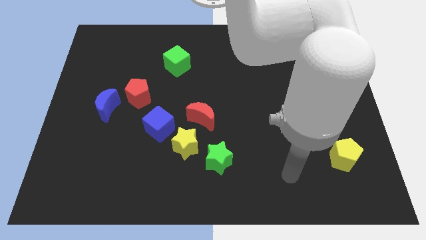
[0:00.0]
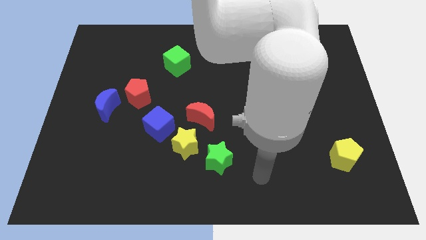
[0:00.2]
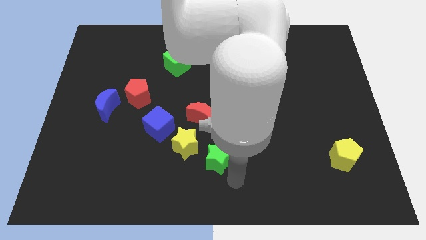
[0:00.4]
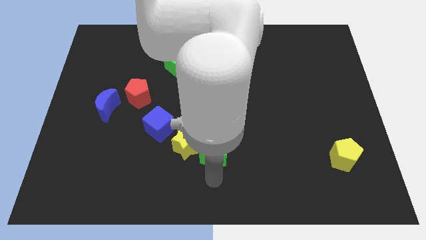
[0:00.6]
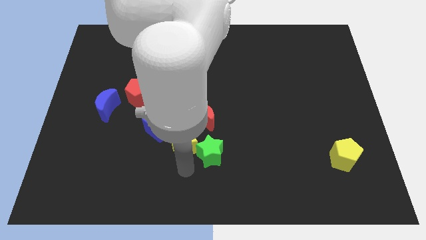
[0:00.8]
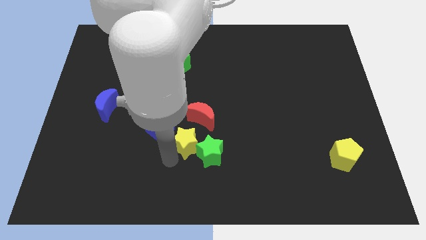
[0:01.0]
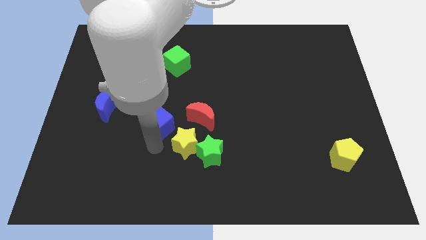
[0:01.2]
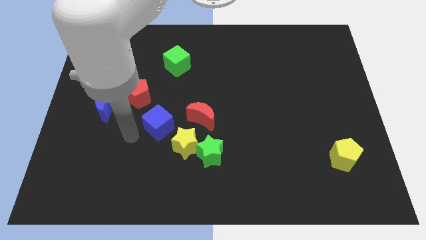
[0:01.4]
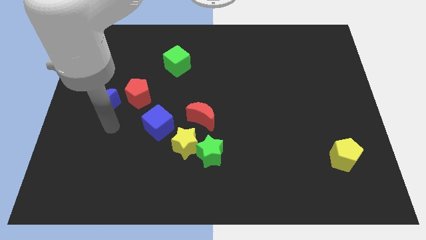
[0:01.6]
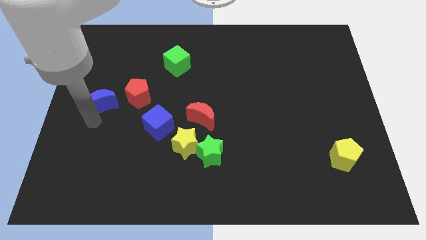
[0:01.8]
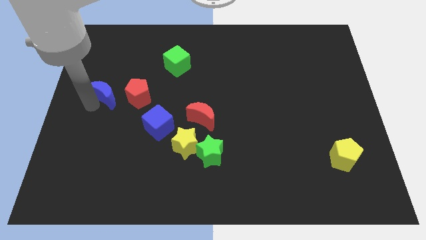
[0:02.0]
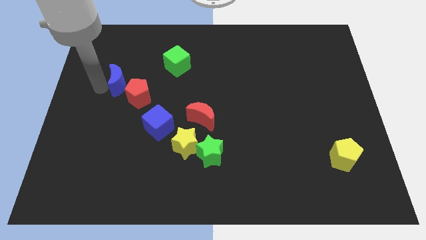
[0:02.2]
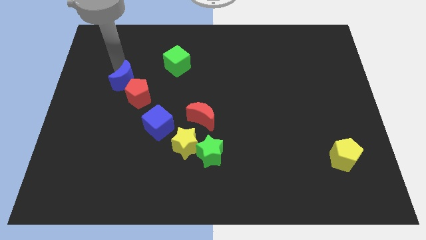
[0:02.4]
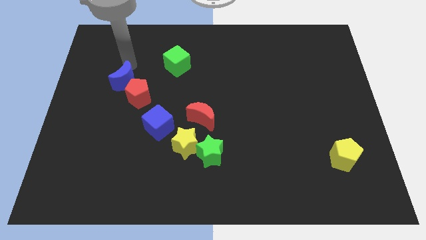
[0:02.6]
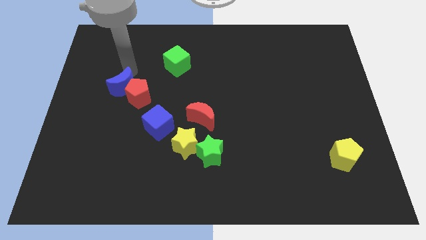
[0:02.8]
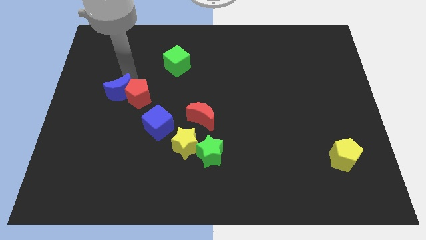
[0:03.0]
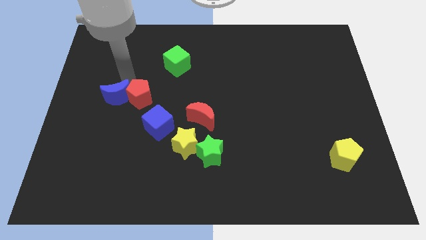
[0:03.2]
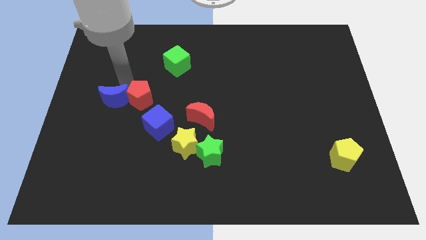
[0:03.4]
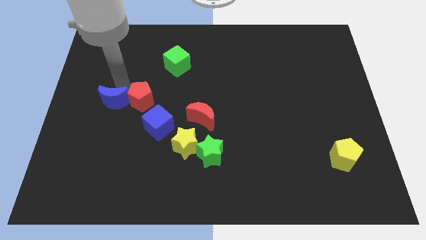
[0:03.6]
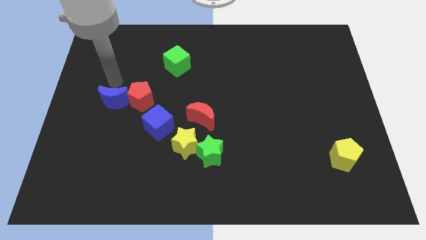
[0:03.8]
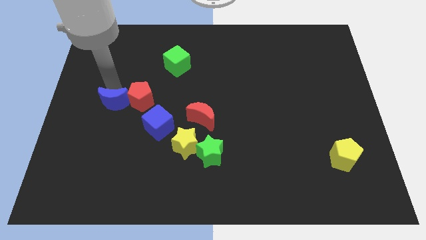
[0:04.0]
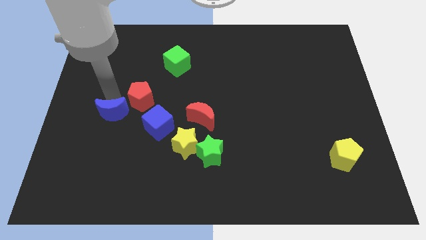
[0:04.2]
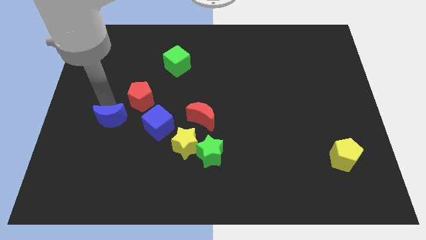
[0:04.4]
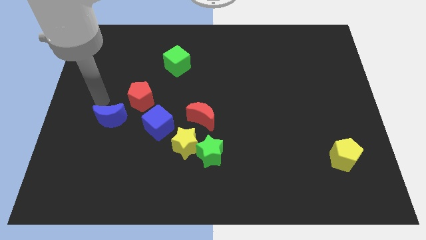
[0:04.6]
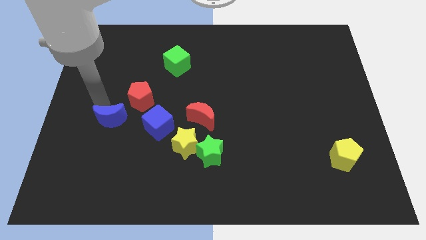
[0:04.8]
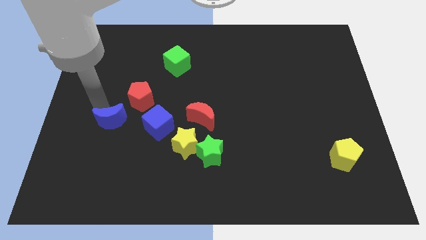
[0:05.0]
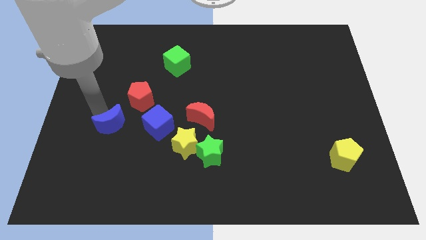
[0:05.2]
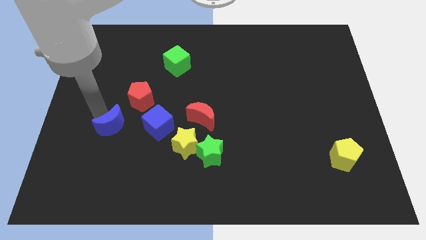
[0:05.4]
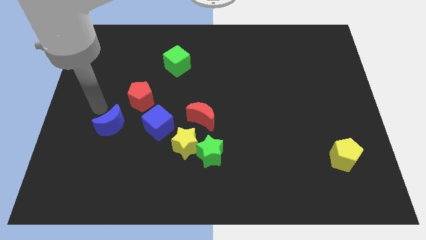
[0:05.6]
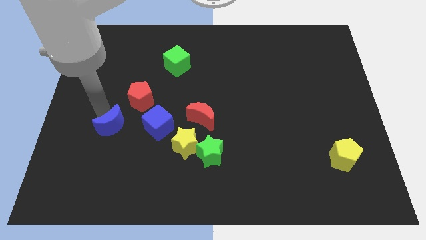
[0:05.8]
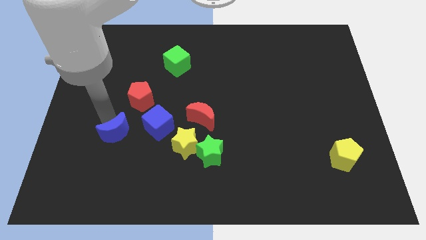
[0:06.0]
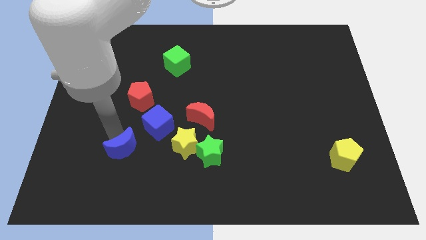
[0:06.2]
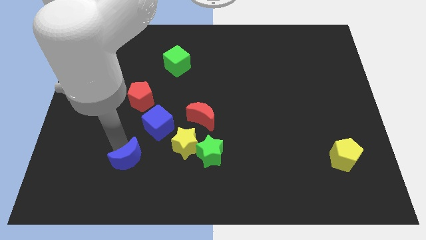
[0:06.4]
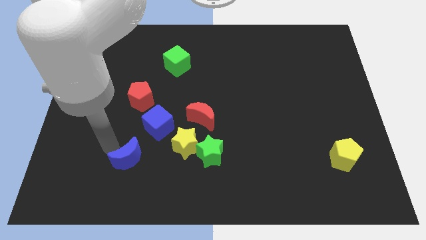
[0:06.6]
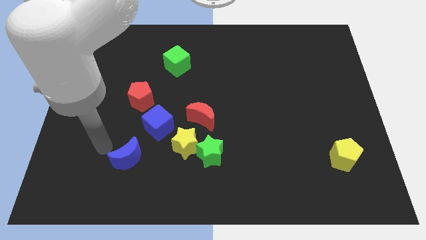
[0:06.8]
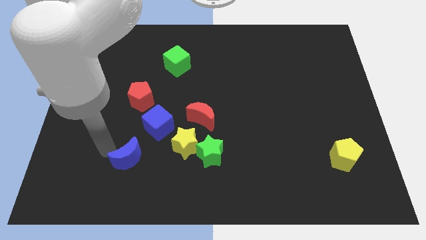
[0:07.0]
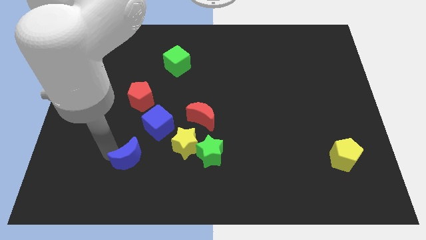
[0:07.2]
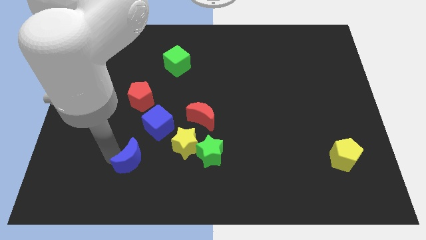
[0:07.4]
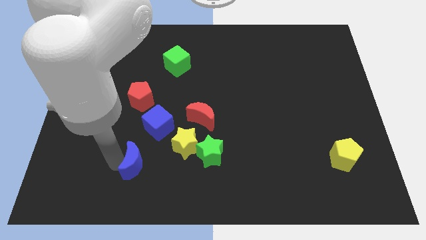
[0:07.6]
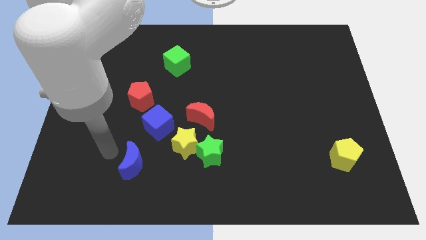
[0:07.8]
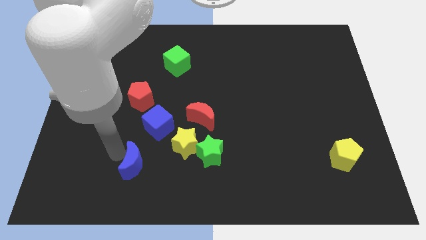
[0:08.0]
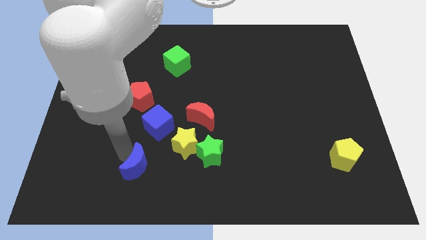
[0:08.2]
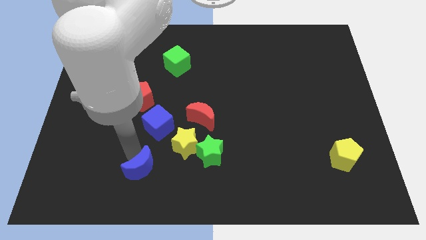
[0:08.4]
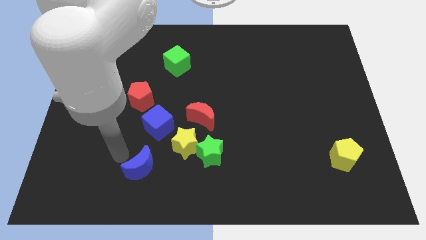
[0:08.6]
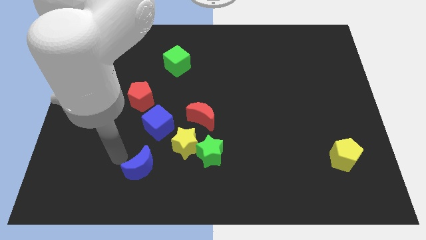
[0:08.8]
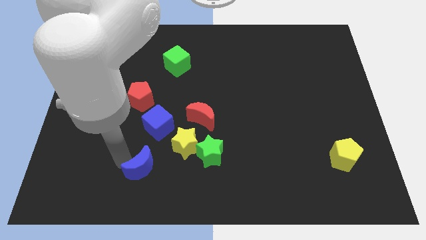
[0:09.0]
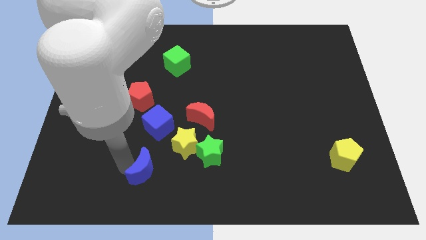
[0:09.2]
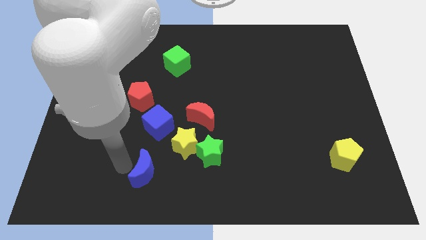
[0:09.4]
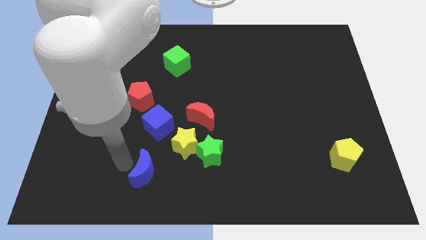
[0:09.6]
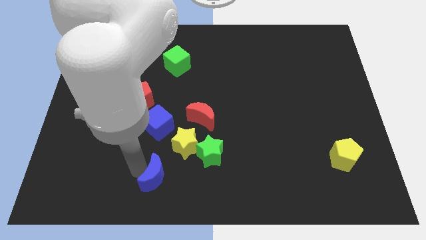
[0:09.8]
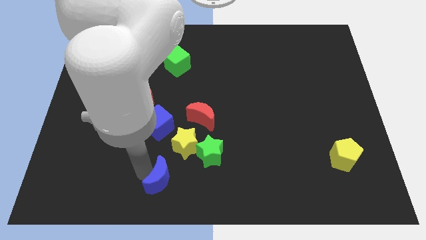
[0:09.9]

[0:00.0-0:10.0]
put the blue moon to the bottom side

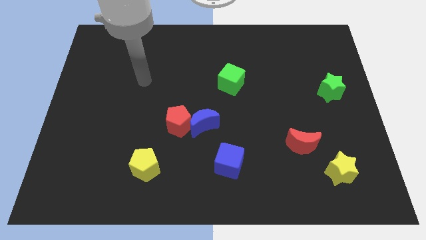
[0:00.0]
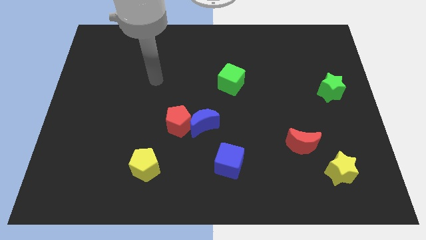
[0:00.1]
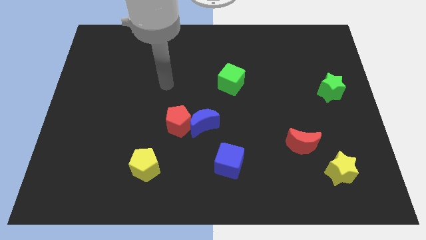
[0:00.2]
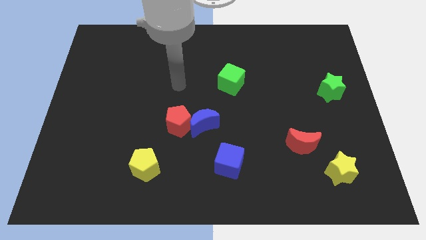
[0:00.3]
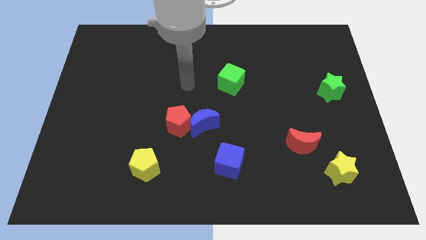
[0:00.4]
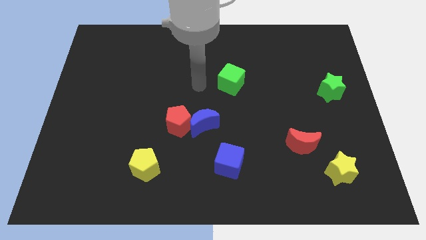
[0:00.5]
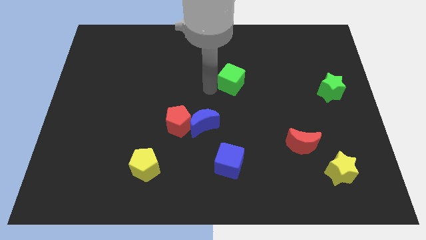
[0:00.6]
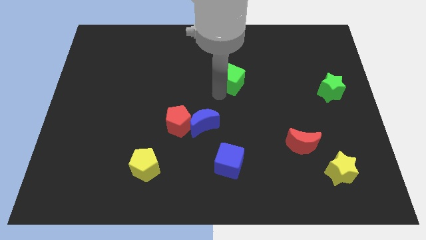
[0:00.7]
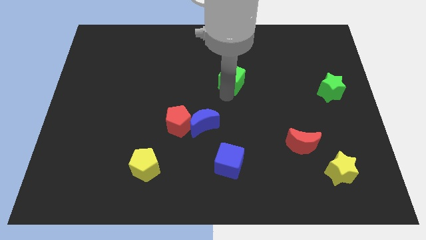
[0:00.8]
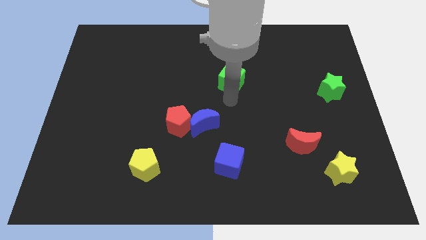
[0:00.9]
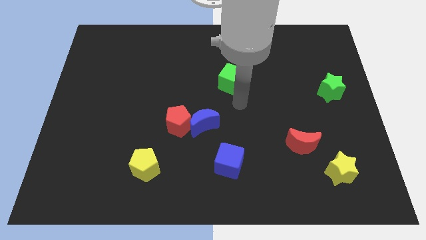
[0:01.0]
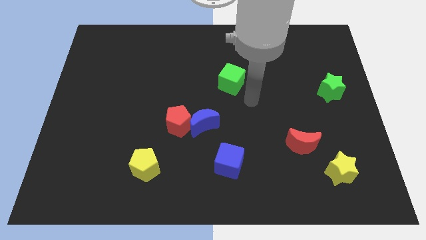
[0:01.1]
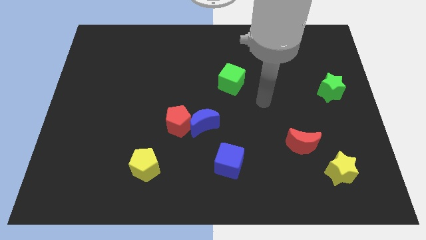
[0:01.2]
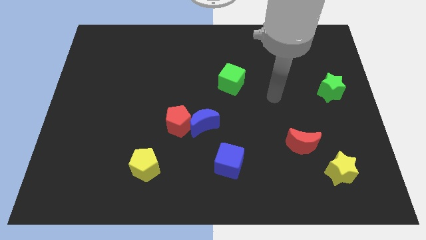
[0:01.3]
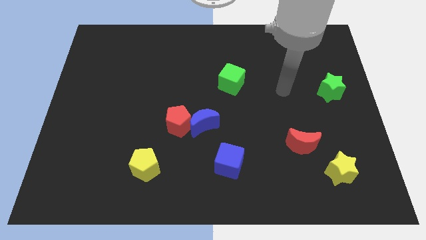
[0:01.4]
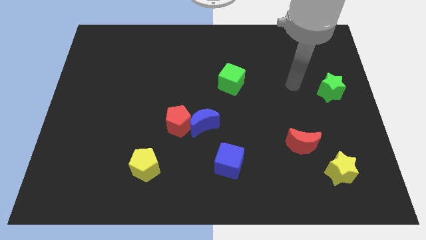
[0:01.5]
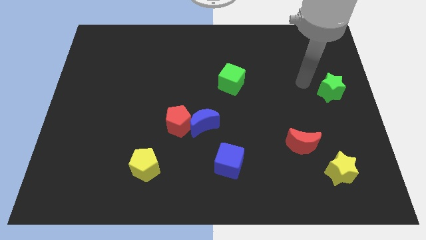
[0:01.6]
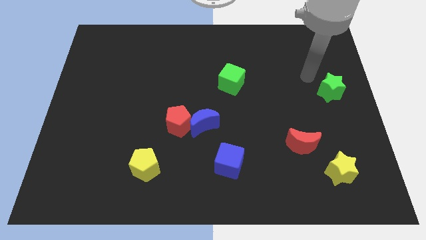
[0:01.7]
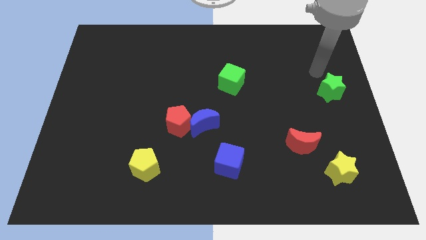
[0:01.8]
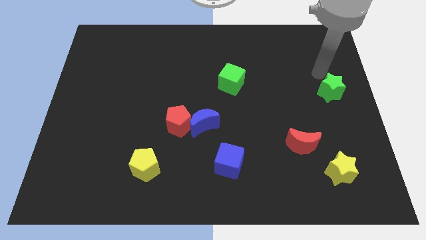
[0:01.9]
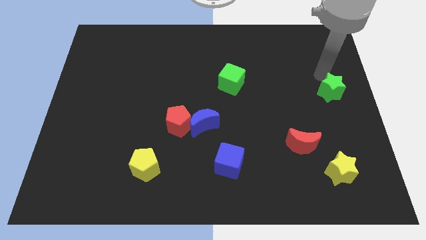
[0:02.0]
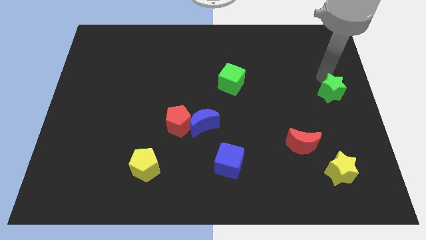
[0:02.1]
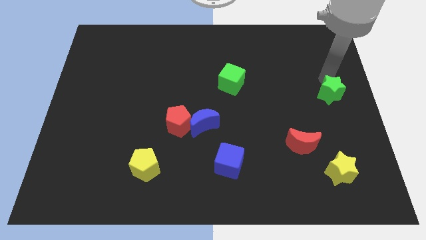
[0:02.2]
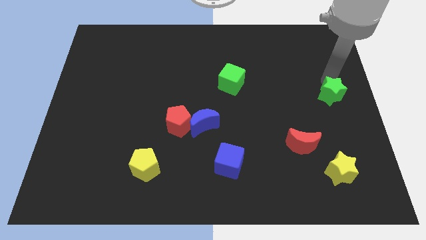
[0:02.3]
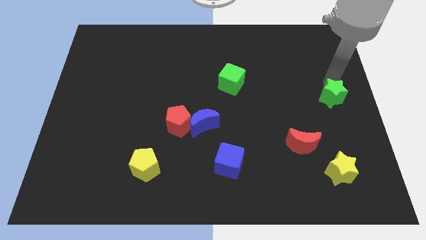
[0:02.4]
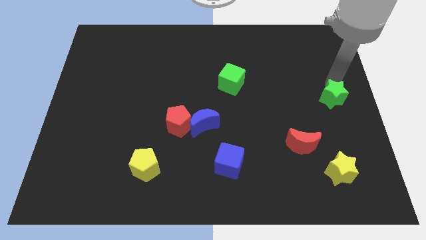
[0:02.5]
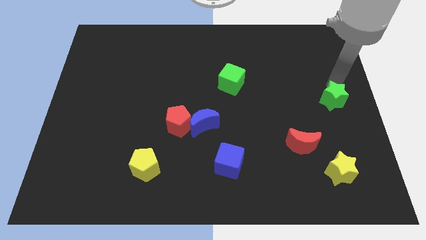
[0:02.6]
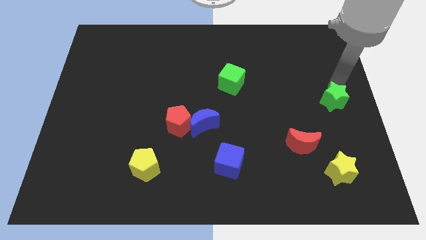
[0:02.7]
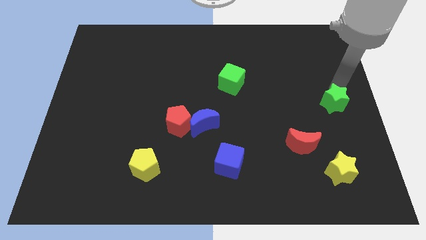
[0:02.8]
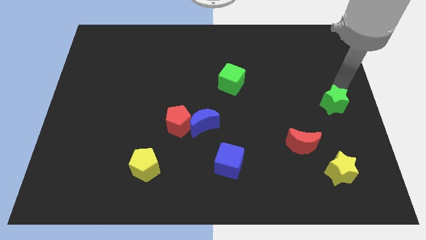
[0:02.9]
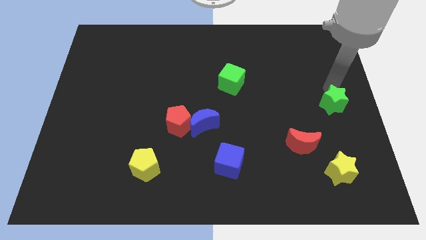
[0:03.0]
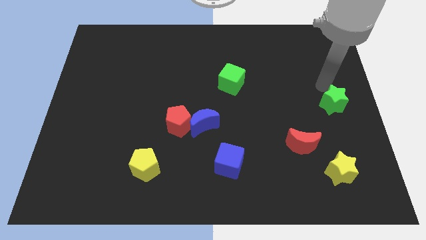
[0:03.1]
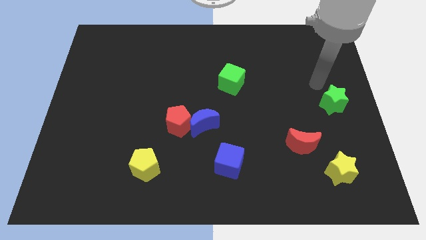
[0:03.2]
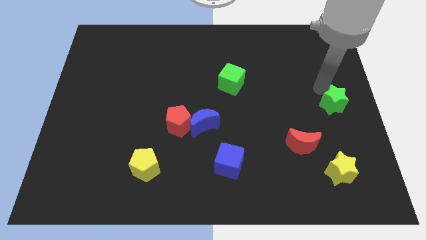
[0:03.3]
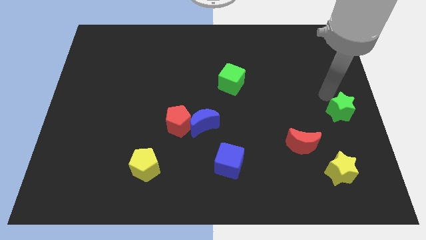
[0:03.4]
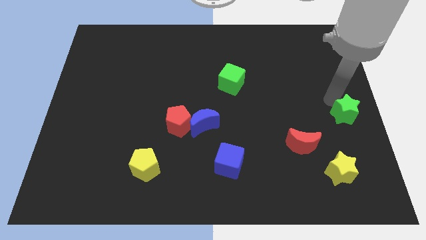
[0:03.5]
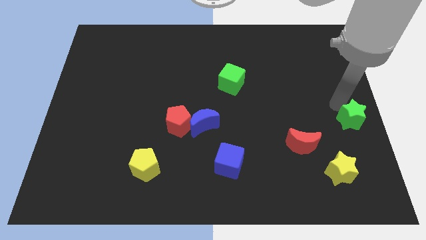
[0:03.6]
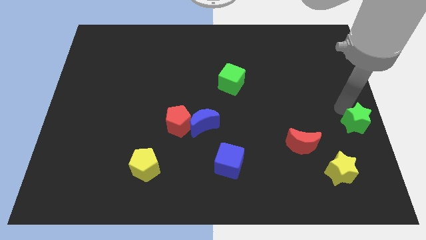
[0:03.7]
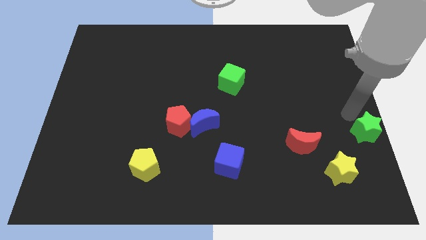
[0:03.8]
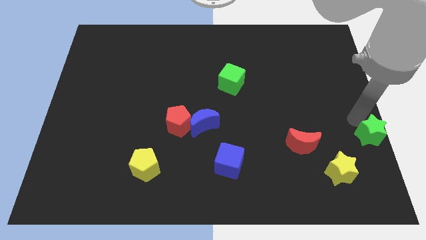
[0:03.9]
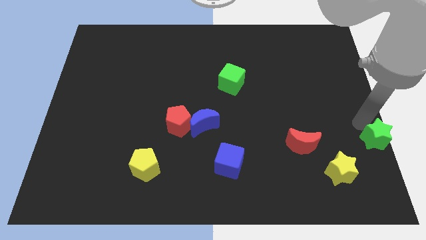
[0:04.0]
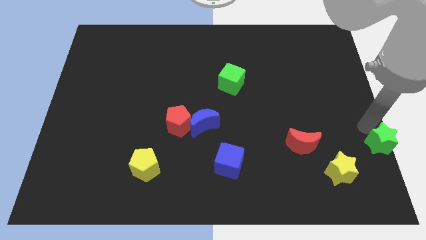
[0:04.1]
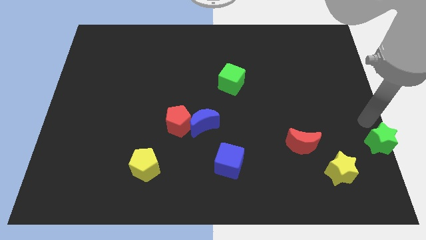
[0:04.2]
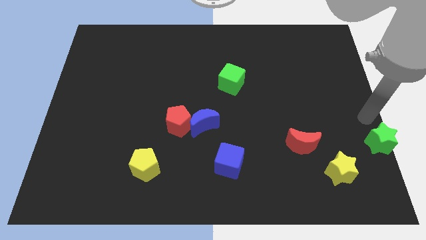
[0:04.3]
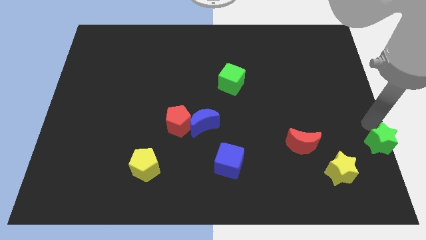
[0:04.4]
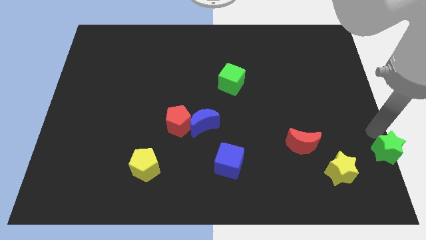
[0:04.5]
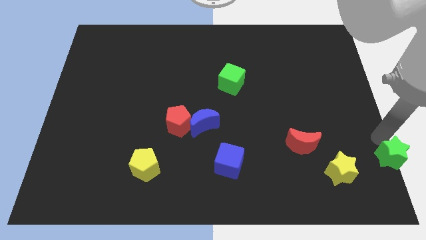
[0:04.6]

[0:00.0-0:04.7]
push the green star to the bottom right
